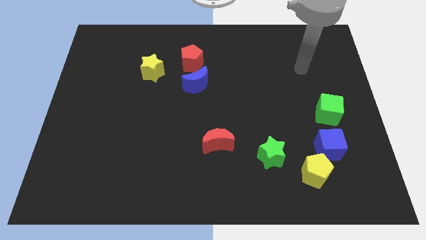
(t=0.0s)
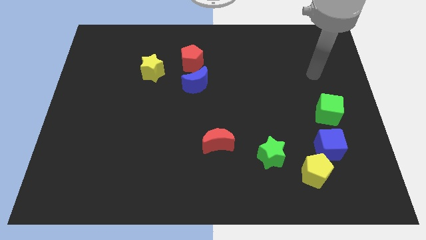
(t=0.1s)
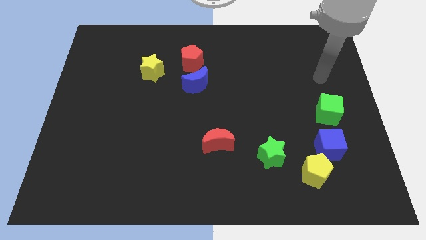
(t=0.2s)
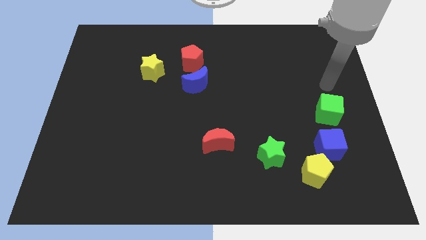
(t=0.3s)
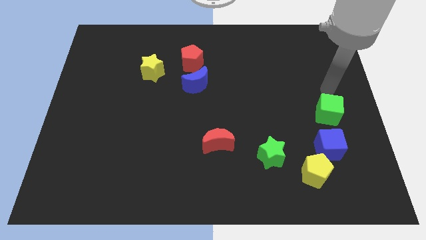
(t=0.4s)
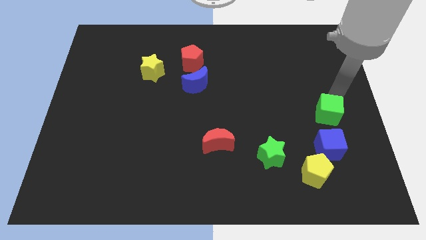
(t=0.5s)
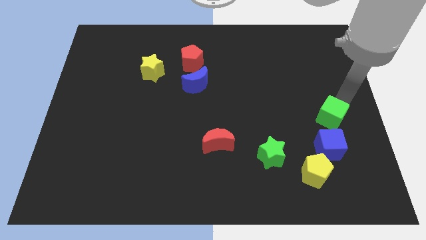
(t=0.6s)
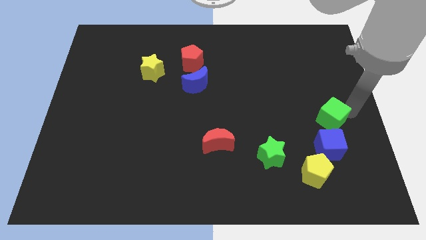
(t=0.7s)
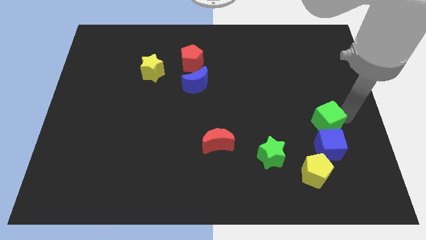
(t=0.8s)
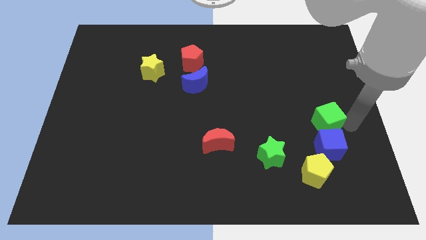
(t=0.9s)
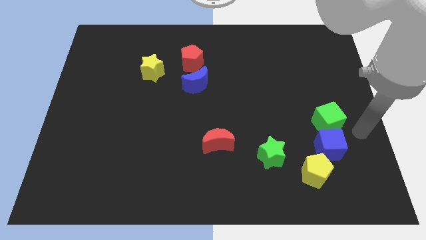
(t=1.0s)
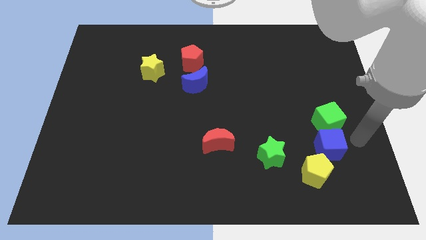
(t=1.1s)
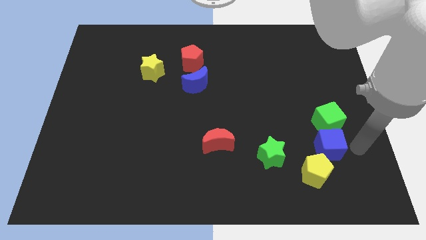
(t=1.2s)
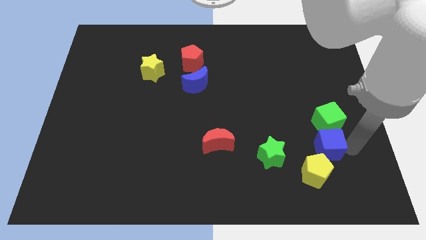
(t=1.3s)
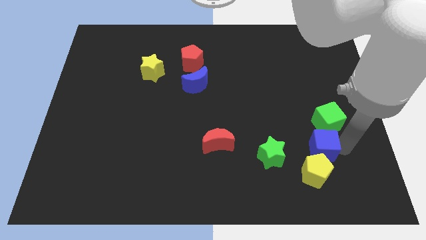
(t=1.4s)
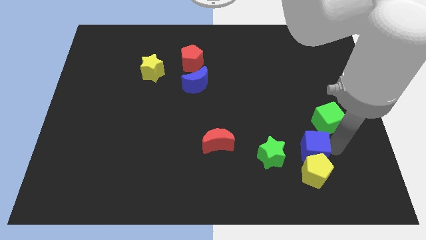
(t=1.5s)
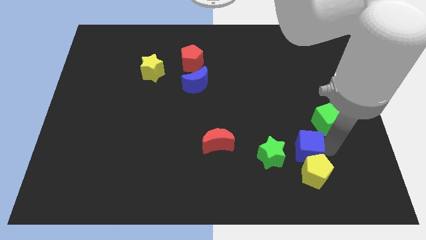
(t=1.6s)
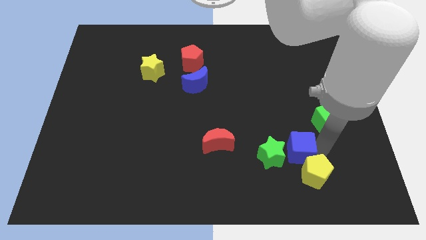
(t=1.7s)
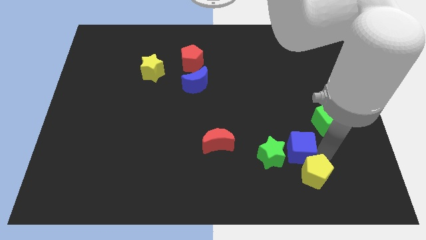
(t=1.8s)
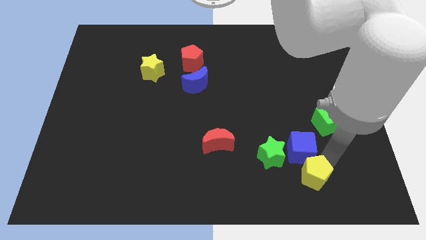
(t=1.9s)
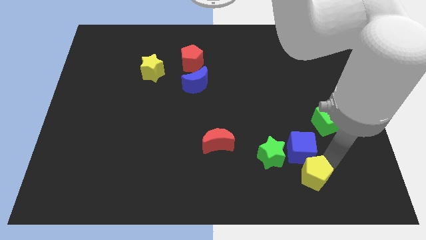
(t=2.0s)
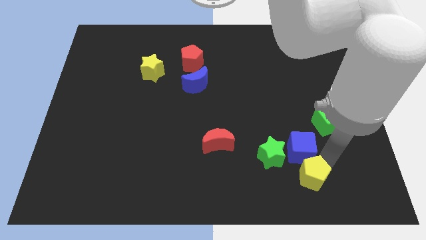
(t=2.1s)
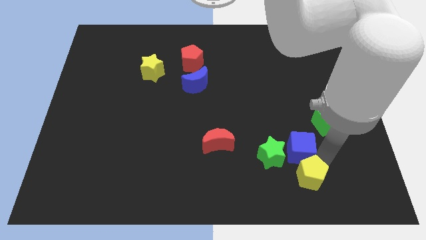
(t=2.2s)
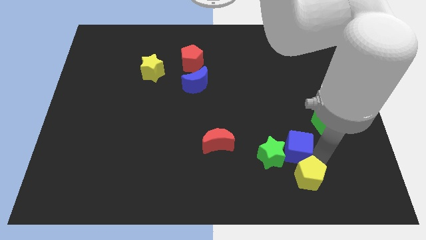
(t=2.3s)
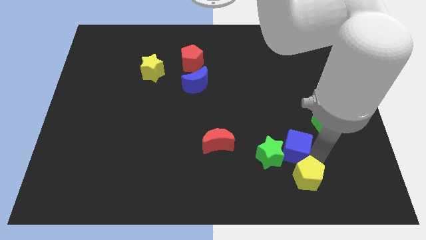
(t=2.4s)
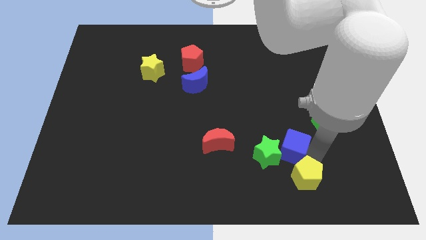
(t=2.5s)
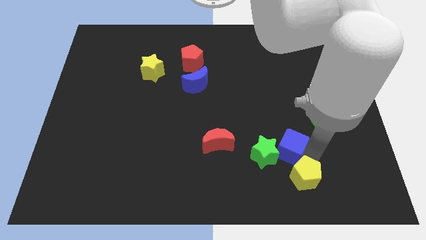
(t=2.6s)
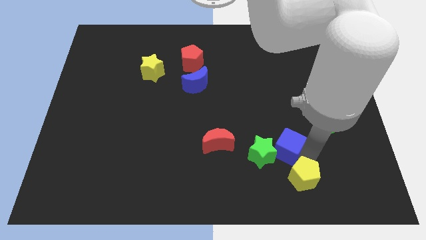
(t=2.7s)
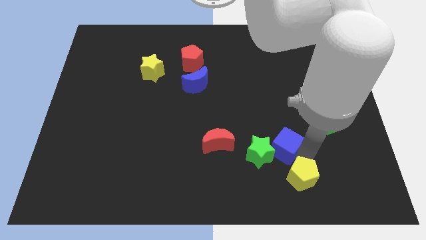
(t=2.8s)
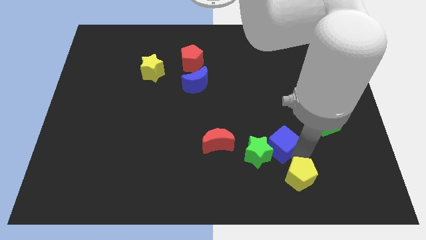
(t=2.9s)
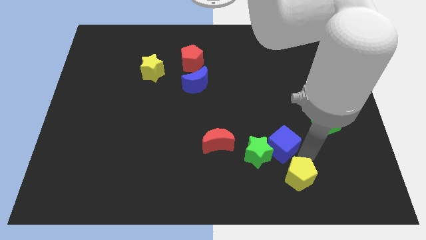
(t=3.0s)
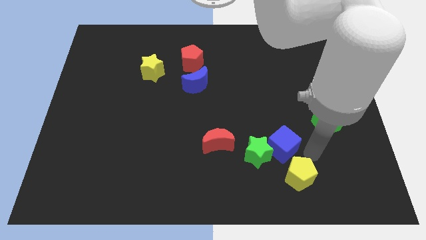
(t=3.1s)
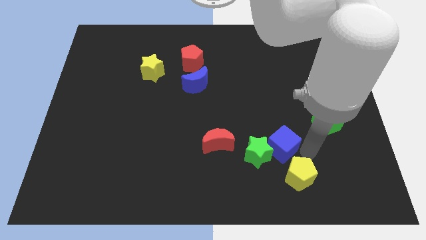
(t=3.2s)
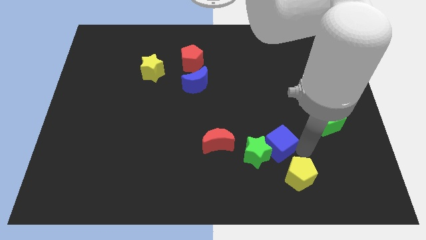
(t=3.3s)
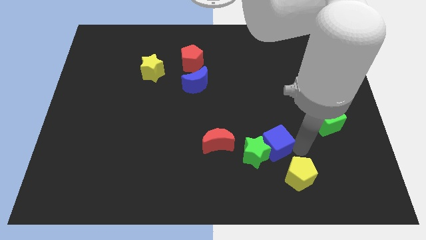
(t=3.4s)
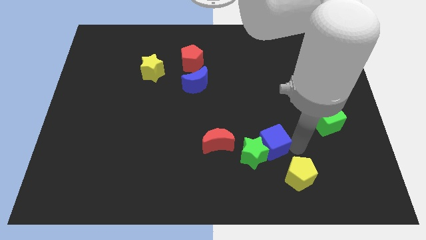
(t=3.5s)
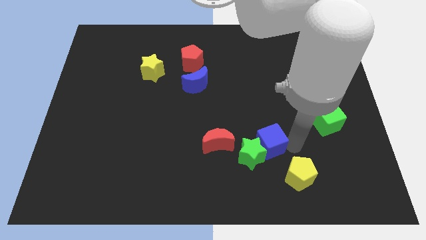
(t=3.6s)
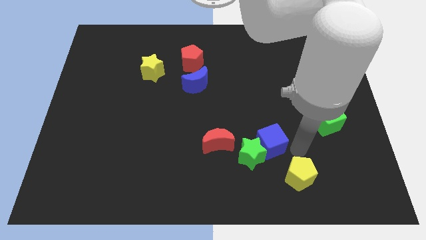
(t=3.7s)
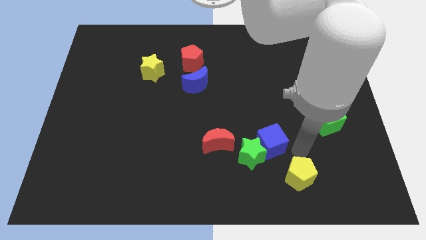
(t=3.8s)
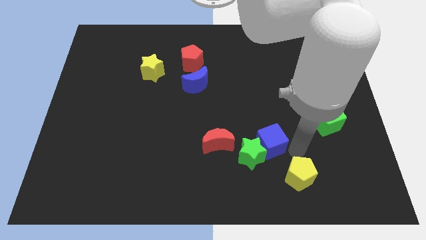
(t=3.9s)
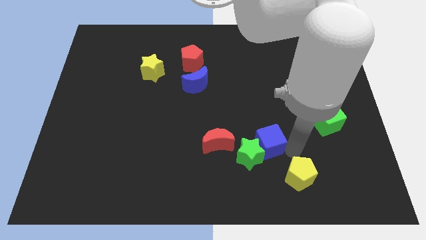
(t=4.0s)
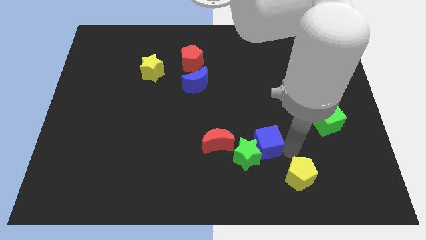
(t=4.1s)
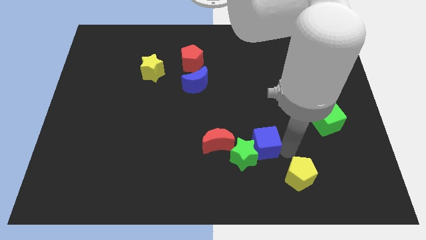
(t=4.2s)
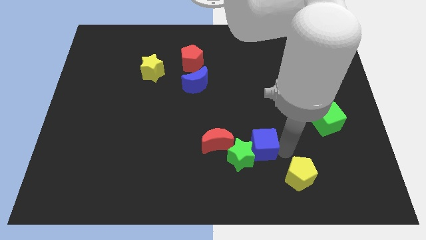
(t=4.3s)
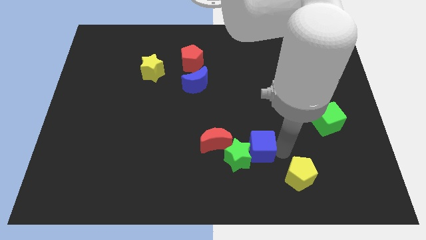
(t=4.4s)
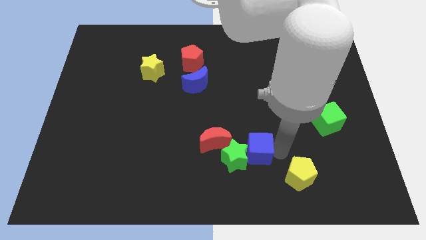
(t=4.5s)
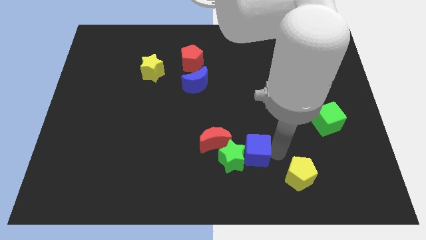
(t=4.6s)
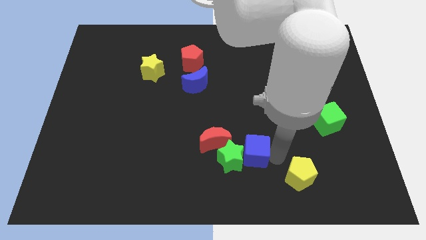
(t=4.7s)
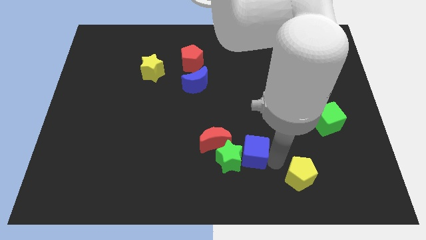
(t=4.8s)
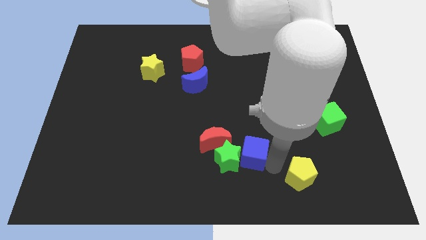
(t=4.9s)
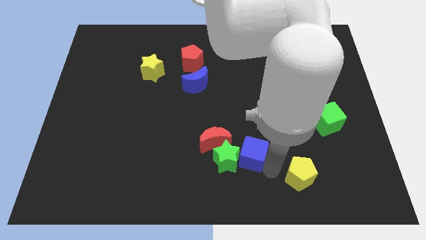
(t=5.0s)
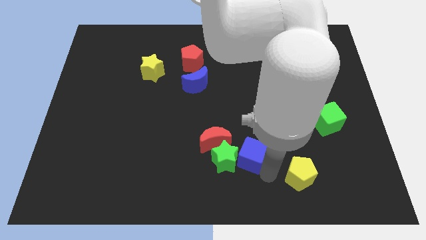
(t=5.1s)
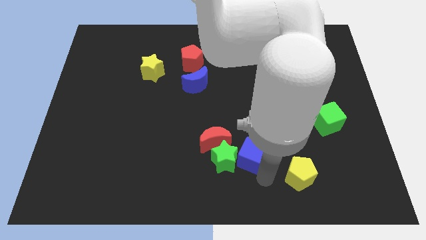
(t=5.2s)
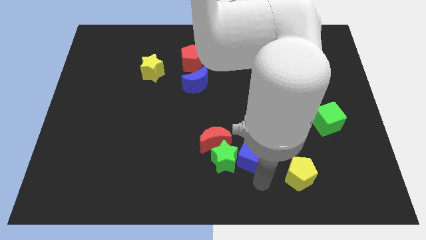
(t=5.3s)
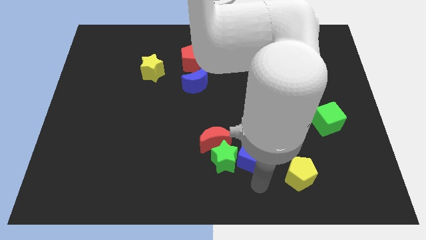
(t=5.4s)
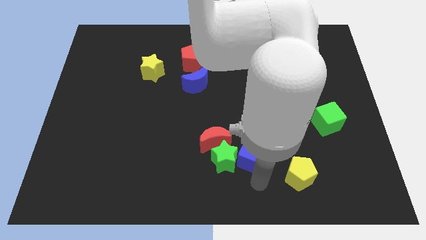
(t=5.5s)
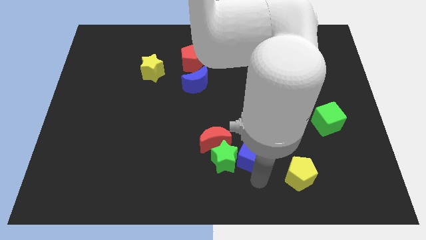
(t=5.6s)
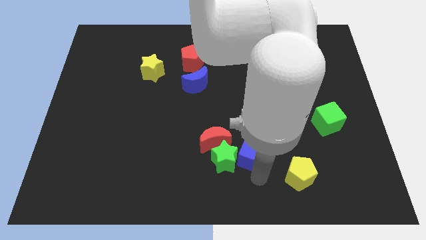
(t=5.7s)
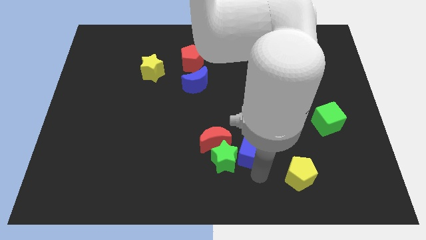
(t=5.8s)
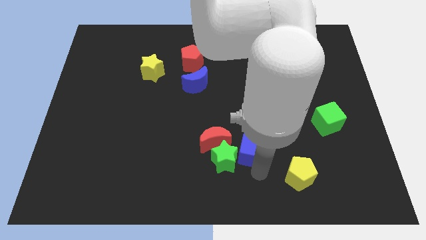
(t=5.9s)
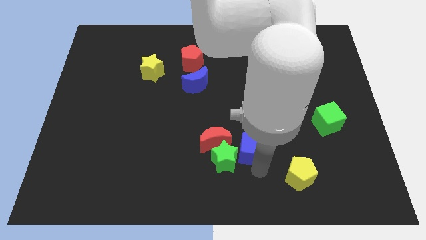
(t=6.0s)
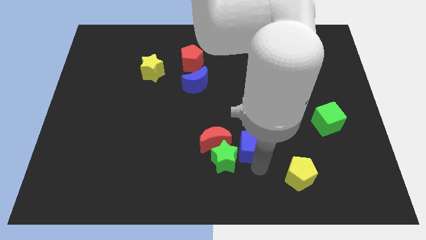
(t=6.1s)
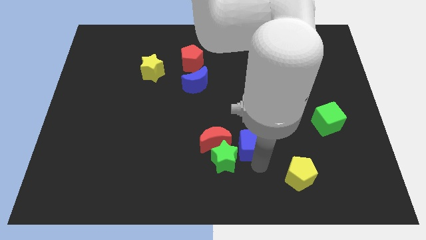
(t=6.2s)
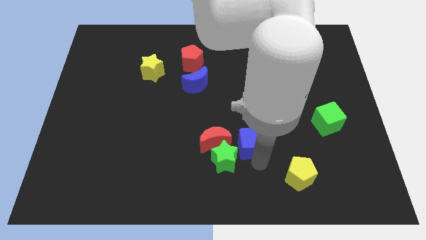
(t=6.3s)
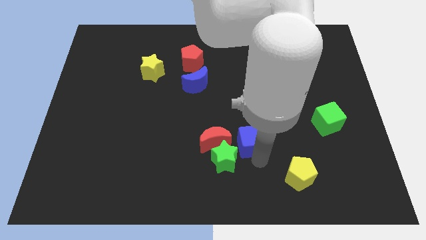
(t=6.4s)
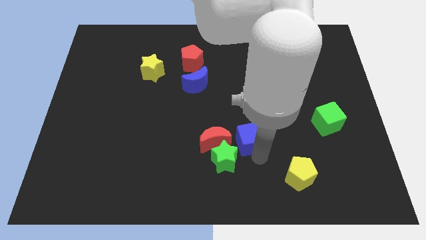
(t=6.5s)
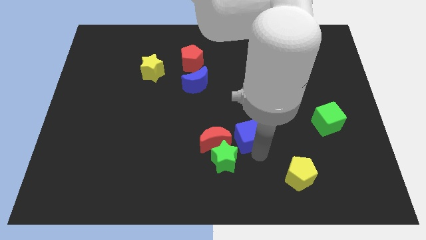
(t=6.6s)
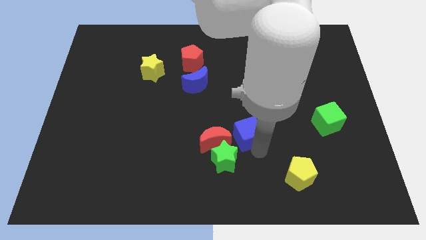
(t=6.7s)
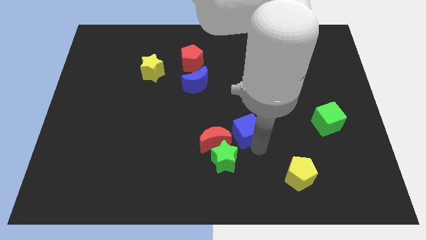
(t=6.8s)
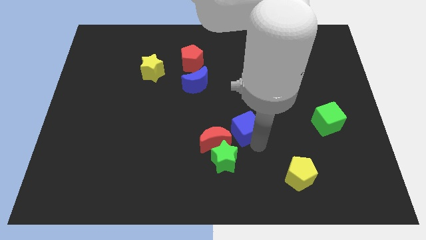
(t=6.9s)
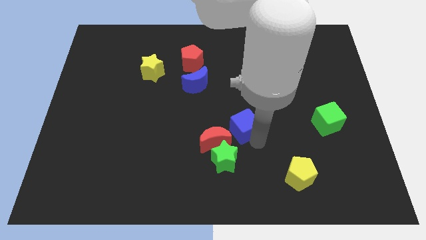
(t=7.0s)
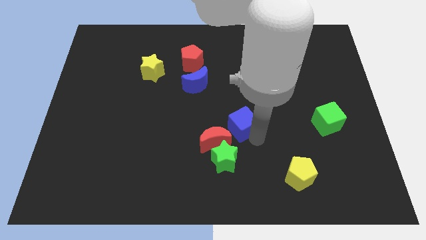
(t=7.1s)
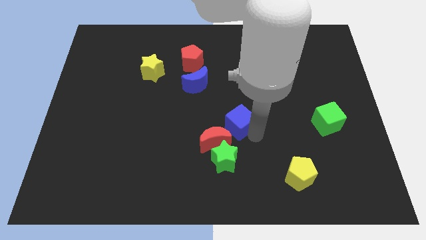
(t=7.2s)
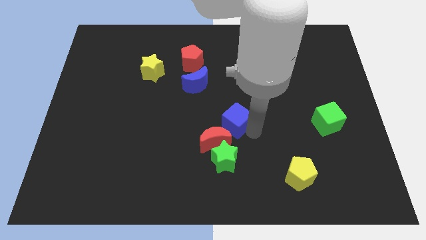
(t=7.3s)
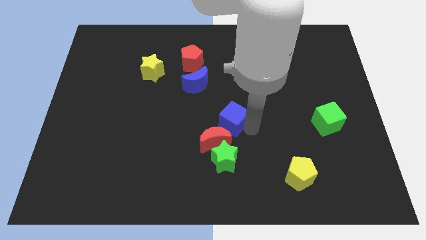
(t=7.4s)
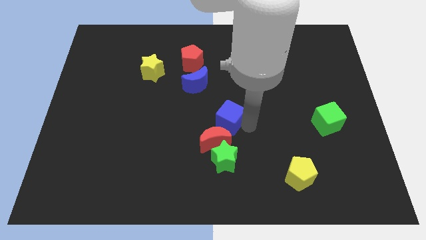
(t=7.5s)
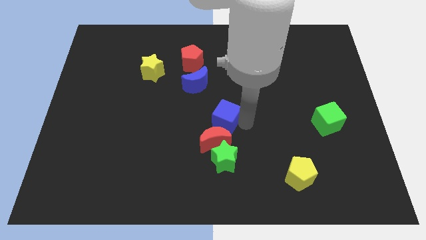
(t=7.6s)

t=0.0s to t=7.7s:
move the blue cube to the left

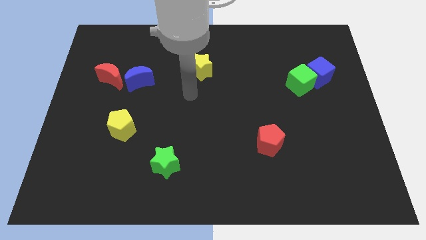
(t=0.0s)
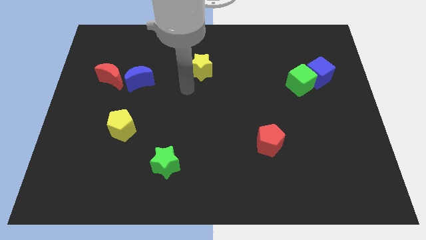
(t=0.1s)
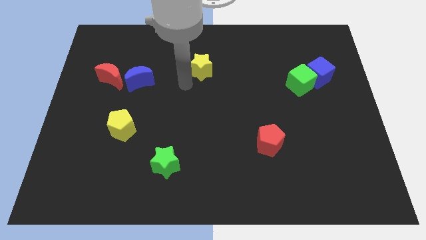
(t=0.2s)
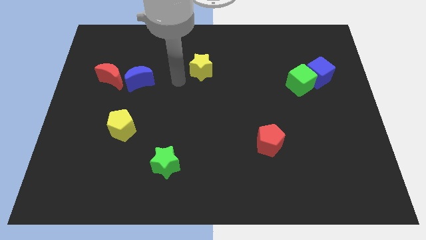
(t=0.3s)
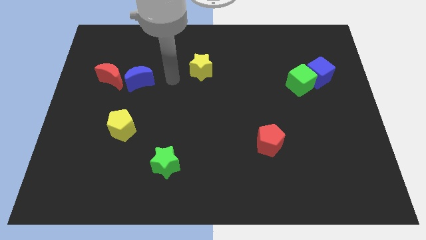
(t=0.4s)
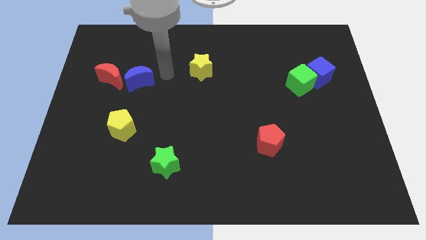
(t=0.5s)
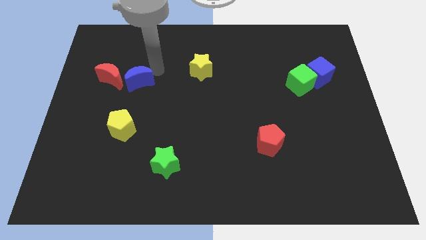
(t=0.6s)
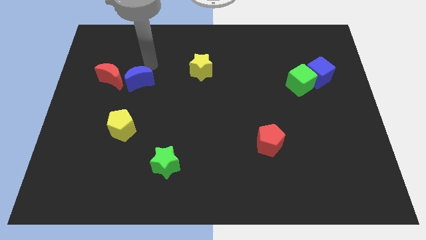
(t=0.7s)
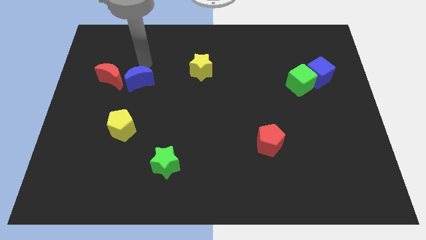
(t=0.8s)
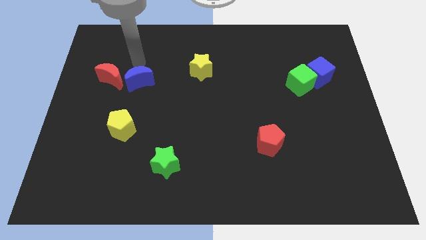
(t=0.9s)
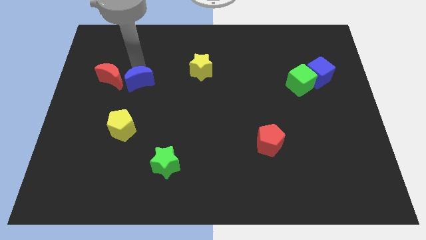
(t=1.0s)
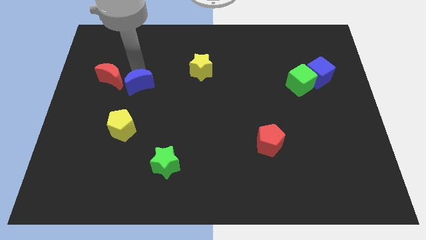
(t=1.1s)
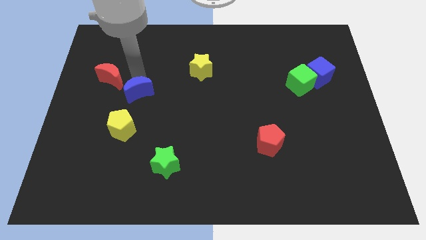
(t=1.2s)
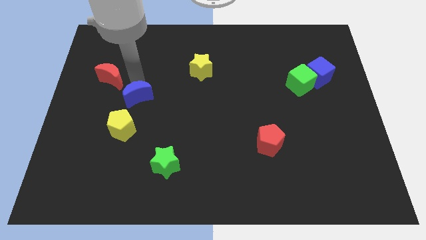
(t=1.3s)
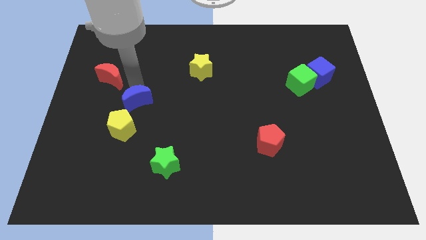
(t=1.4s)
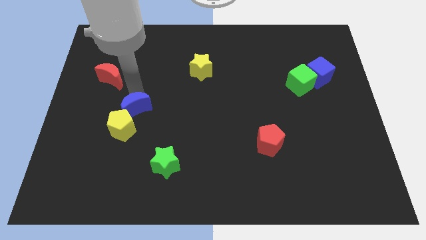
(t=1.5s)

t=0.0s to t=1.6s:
slightly move the blue moon downwards
